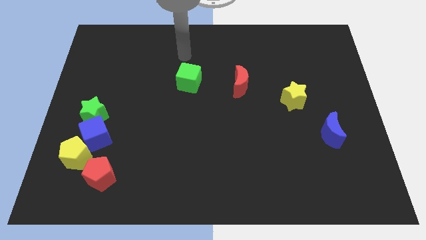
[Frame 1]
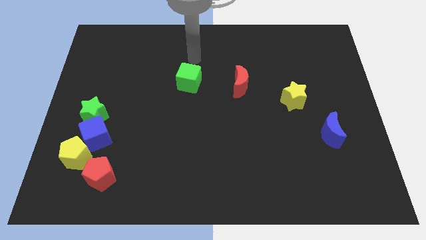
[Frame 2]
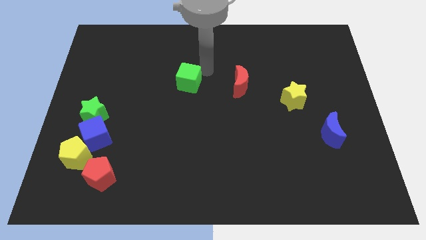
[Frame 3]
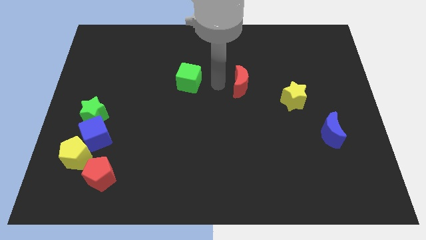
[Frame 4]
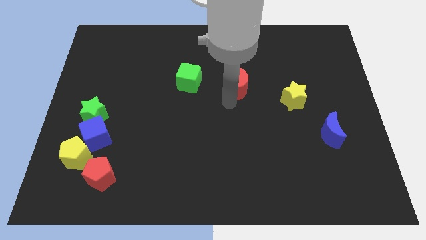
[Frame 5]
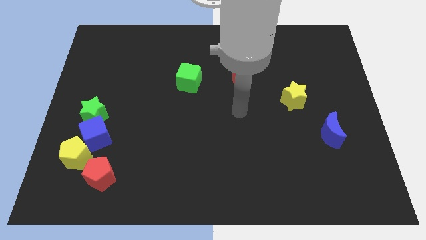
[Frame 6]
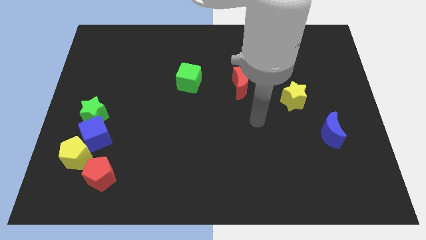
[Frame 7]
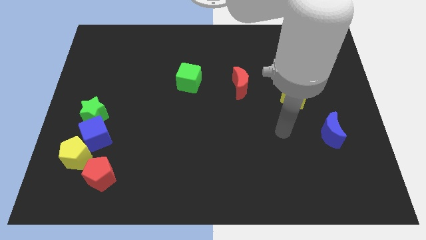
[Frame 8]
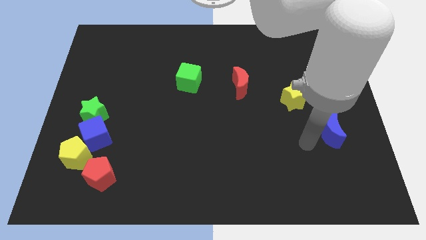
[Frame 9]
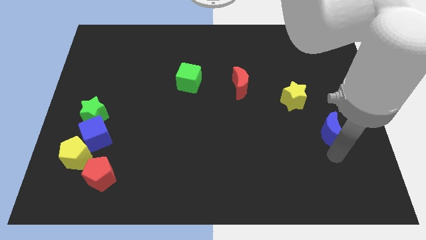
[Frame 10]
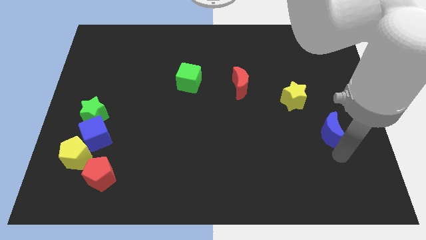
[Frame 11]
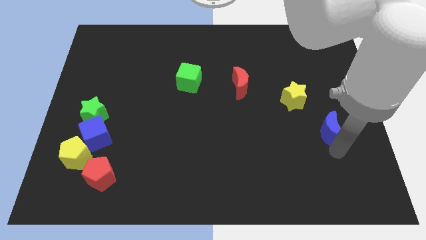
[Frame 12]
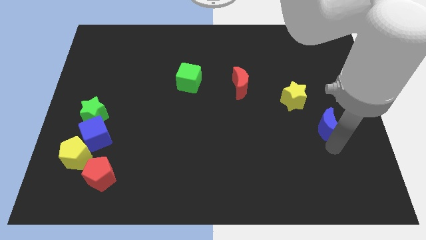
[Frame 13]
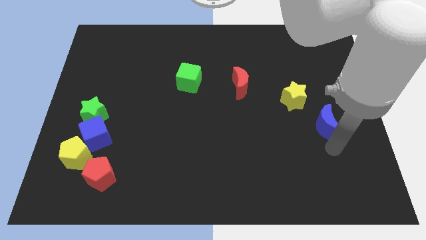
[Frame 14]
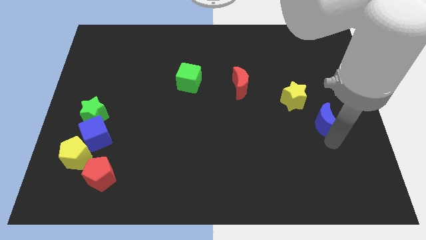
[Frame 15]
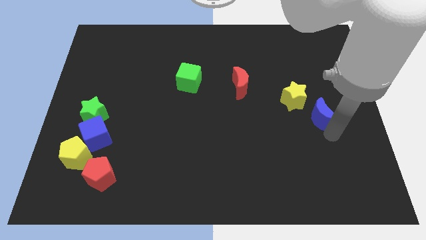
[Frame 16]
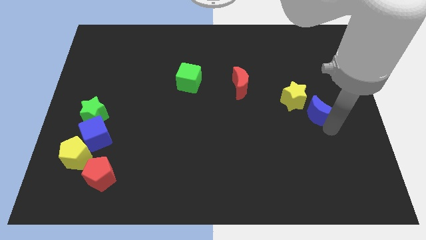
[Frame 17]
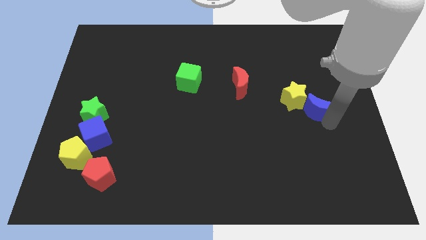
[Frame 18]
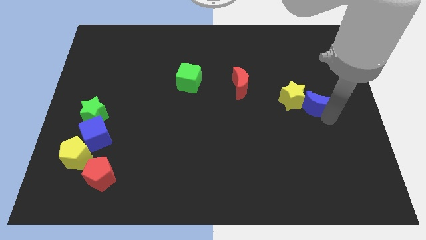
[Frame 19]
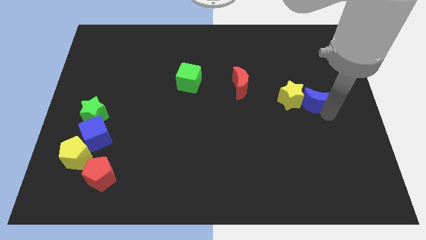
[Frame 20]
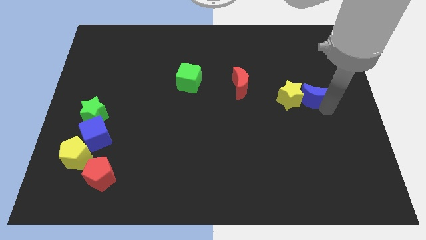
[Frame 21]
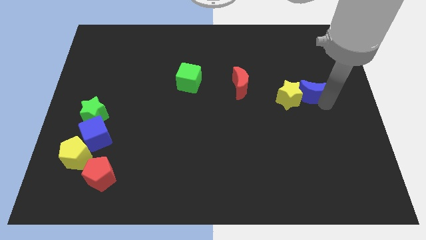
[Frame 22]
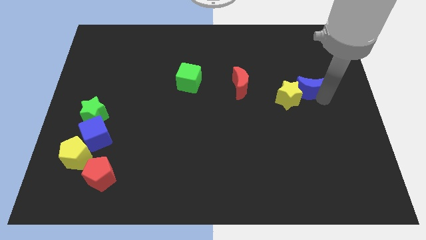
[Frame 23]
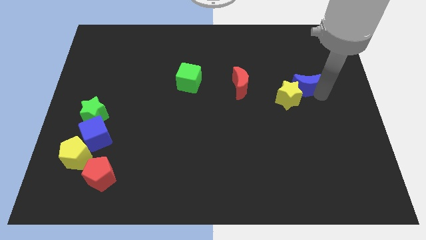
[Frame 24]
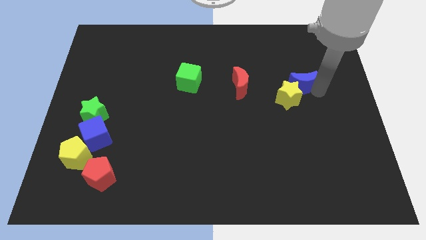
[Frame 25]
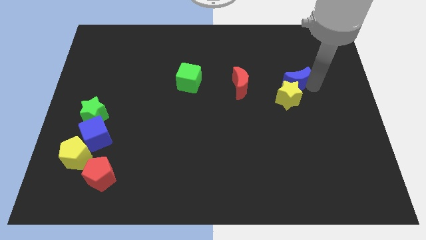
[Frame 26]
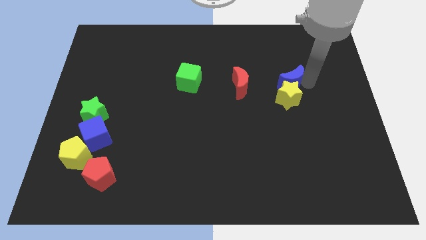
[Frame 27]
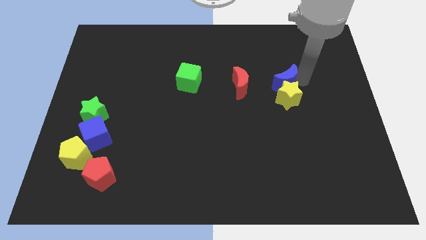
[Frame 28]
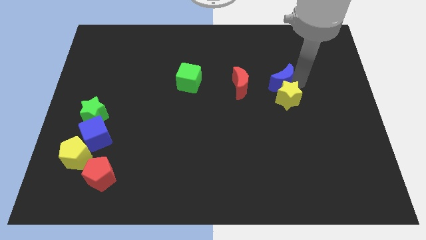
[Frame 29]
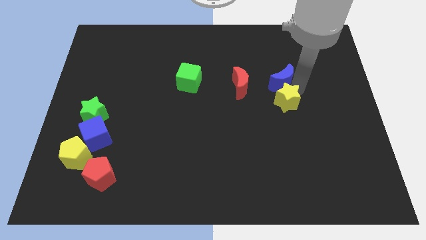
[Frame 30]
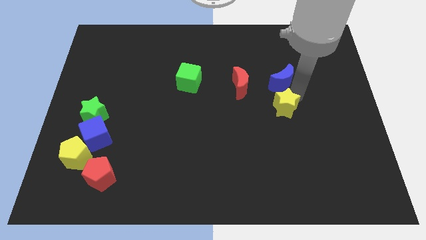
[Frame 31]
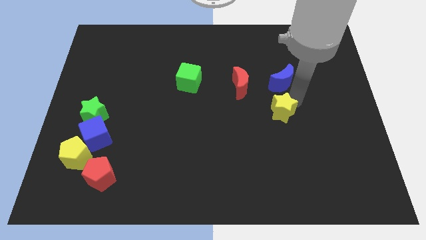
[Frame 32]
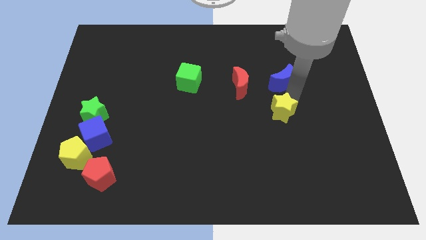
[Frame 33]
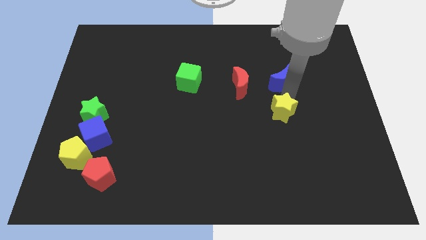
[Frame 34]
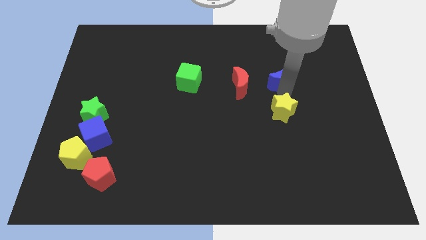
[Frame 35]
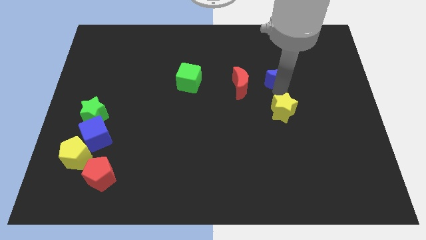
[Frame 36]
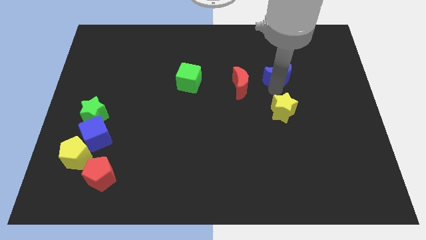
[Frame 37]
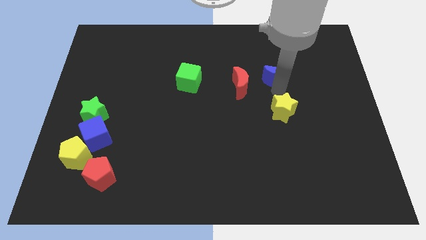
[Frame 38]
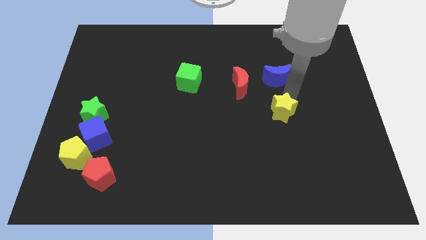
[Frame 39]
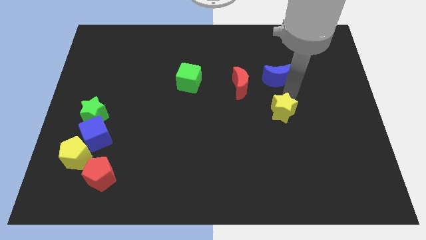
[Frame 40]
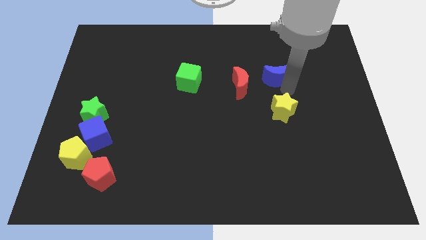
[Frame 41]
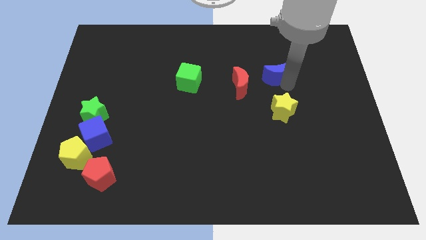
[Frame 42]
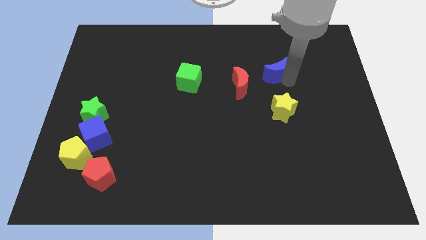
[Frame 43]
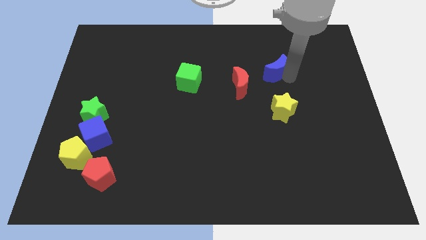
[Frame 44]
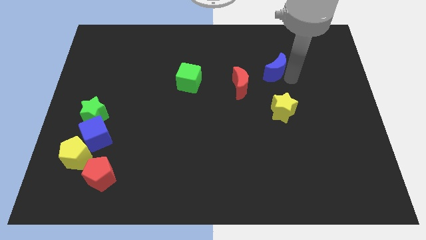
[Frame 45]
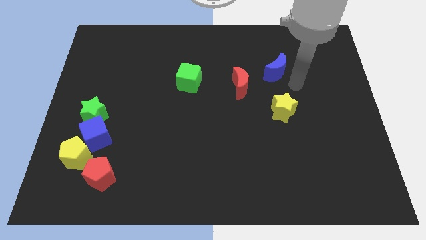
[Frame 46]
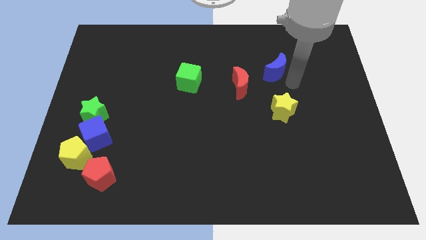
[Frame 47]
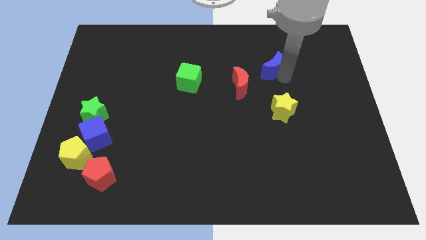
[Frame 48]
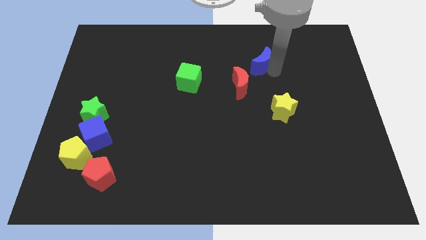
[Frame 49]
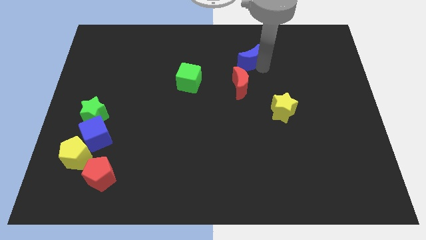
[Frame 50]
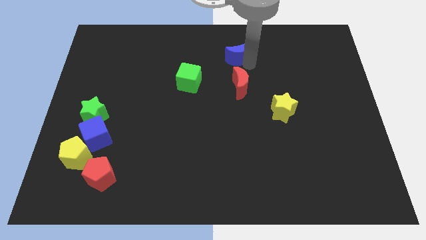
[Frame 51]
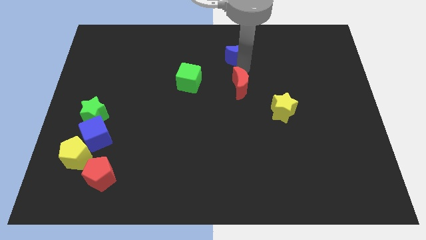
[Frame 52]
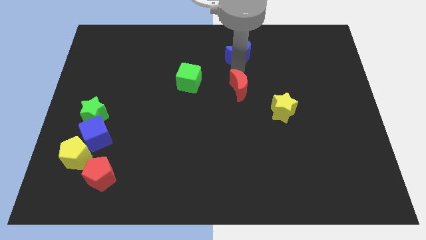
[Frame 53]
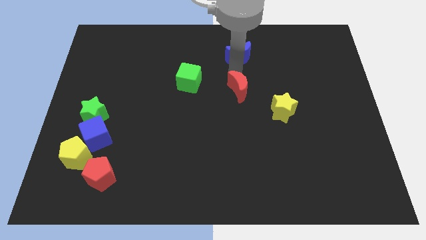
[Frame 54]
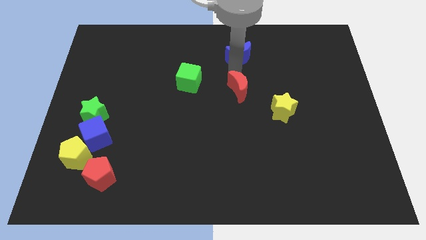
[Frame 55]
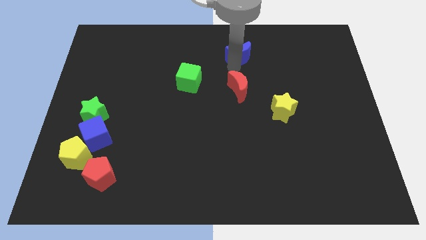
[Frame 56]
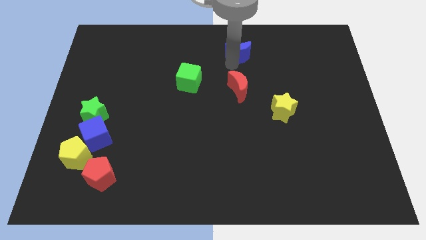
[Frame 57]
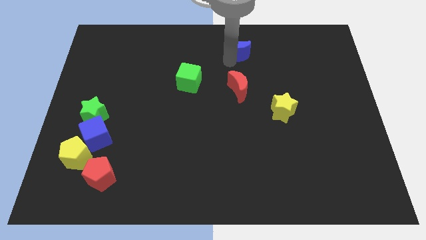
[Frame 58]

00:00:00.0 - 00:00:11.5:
slide the blue moon to the top side

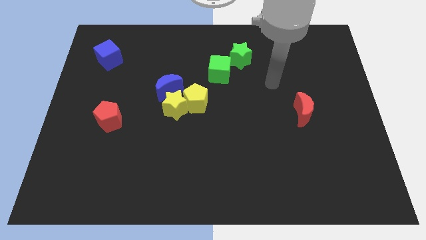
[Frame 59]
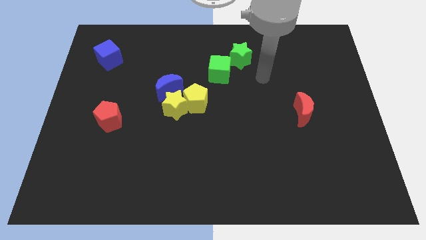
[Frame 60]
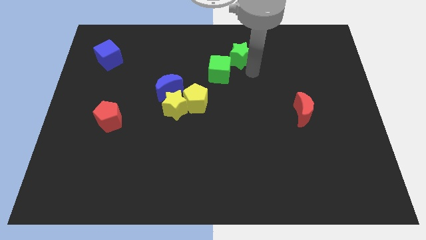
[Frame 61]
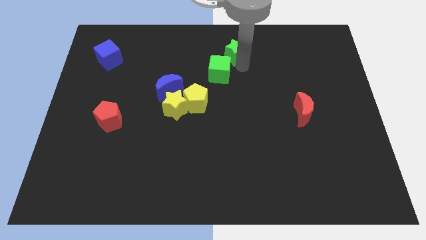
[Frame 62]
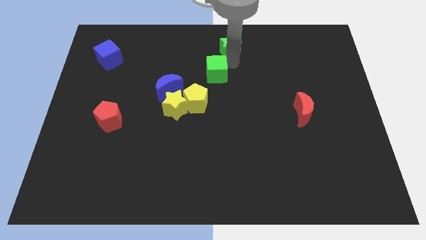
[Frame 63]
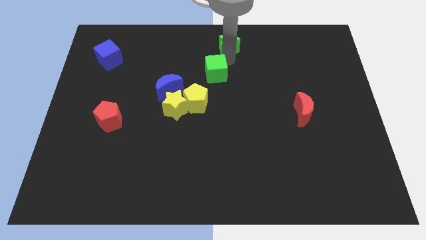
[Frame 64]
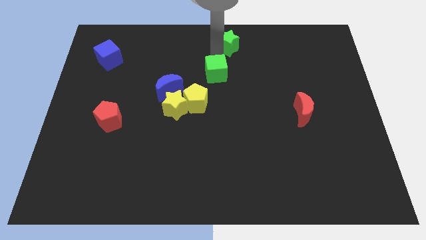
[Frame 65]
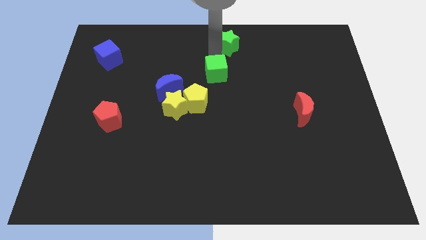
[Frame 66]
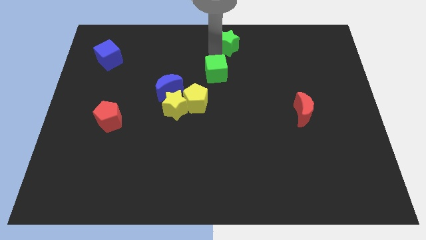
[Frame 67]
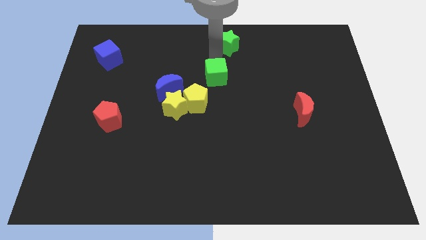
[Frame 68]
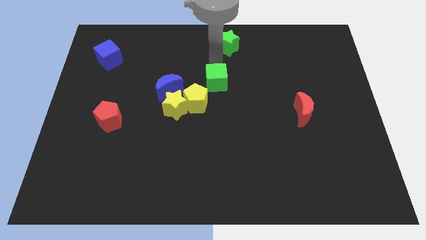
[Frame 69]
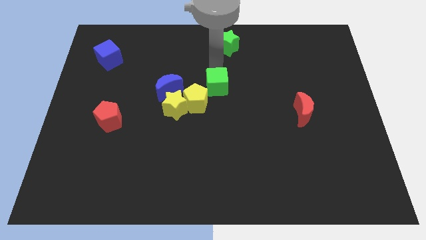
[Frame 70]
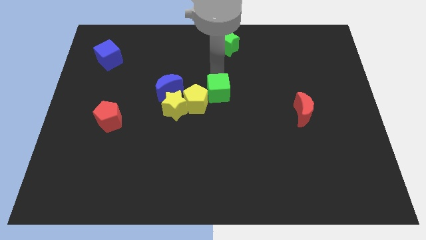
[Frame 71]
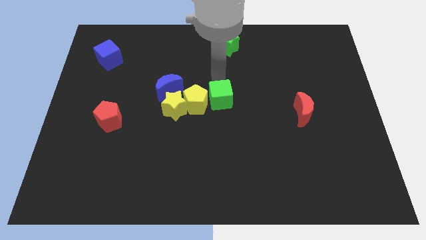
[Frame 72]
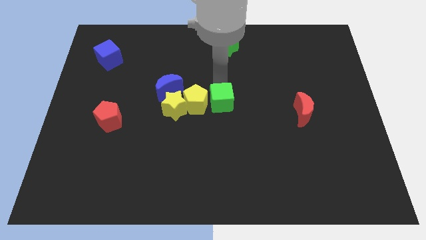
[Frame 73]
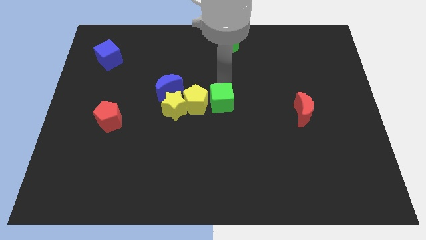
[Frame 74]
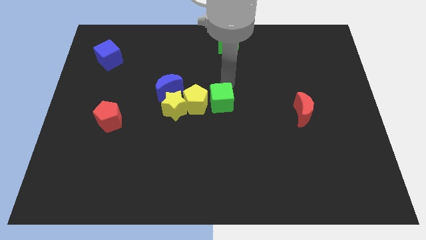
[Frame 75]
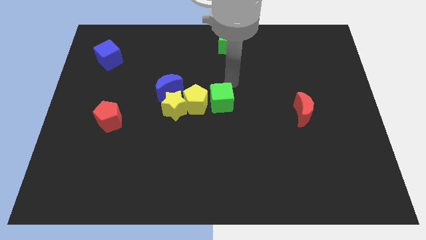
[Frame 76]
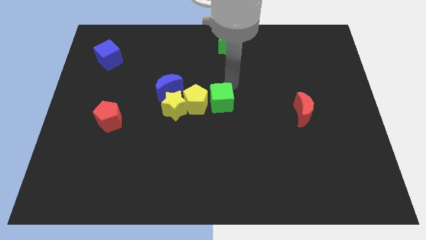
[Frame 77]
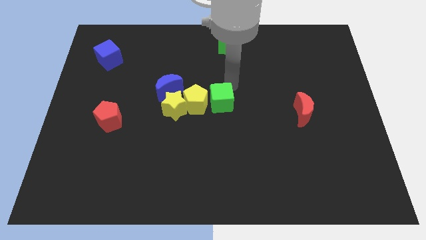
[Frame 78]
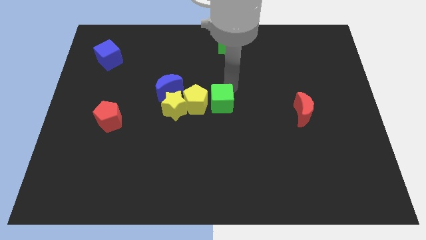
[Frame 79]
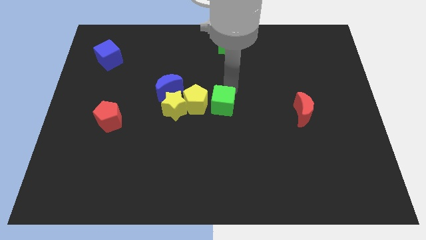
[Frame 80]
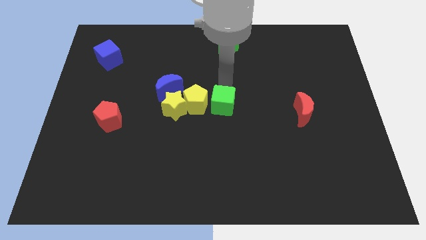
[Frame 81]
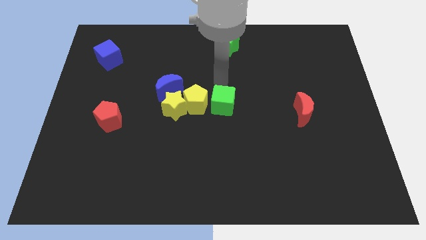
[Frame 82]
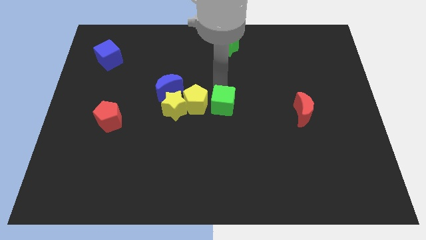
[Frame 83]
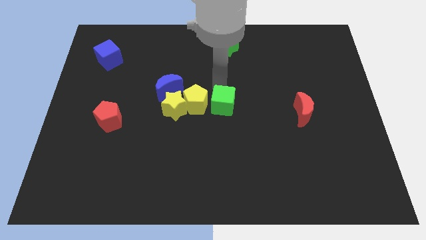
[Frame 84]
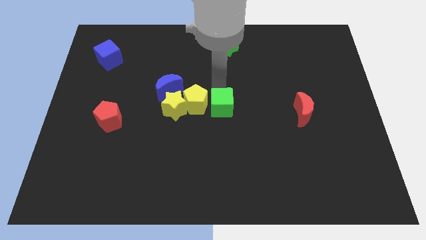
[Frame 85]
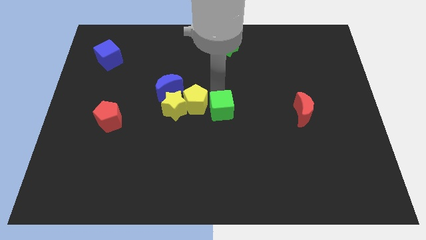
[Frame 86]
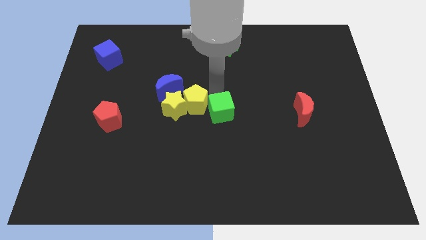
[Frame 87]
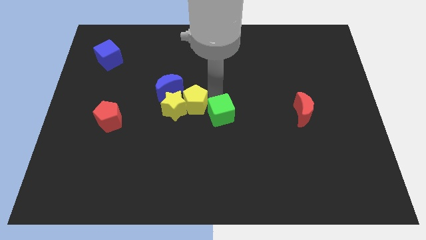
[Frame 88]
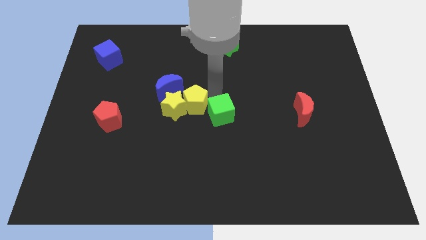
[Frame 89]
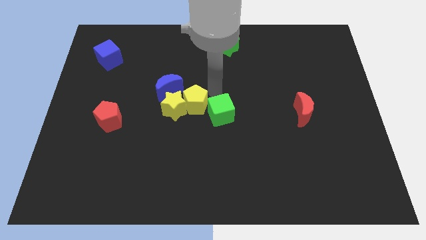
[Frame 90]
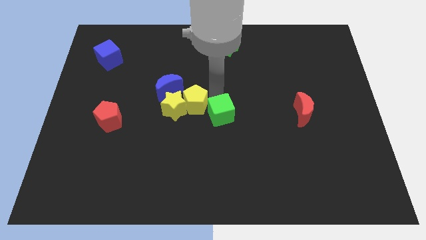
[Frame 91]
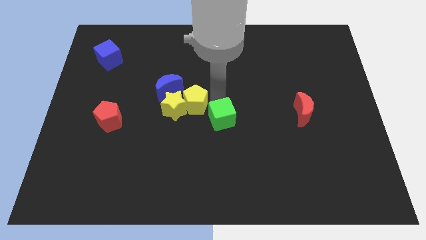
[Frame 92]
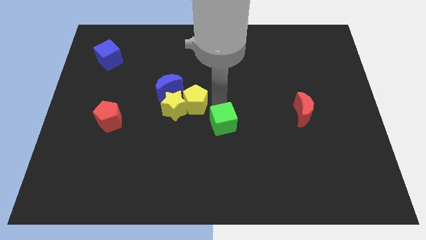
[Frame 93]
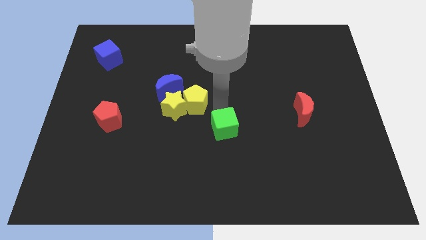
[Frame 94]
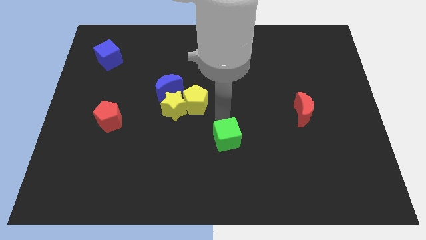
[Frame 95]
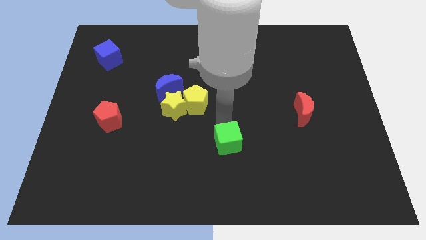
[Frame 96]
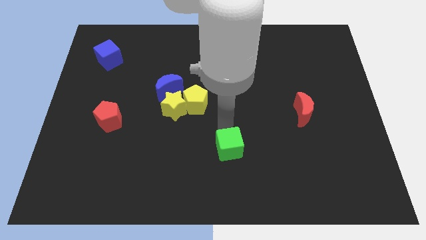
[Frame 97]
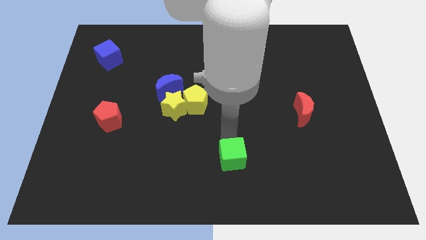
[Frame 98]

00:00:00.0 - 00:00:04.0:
slide the green cube to the bottom
